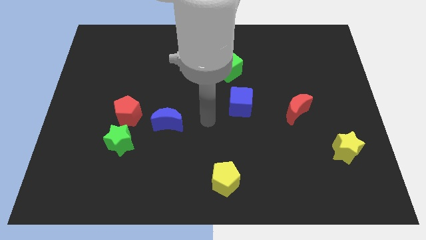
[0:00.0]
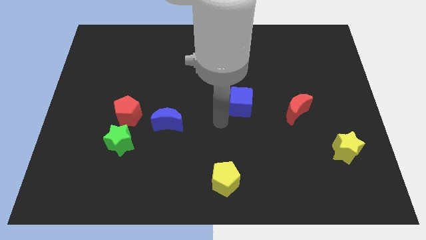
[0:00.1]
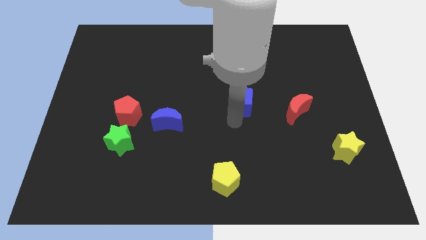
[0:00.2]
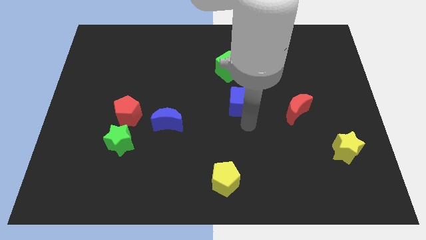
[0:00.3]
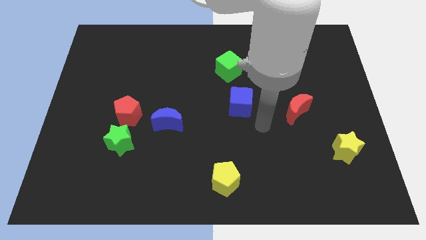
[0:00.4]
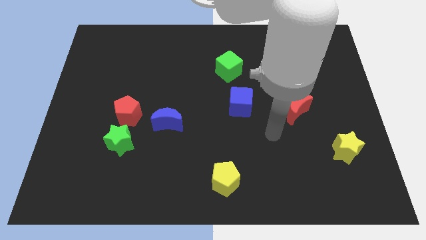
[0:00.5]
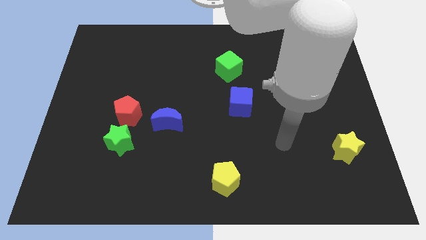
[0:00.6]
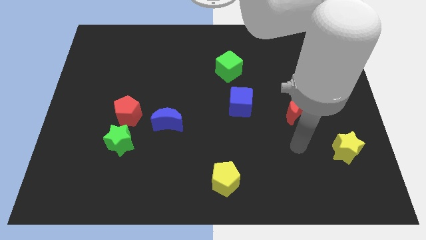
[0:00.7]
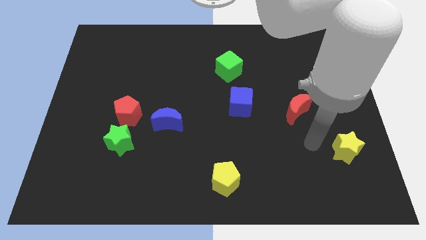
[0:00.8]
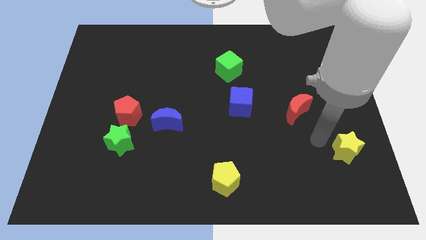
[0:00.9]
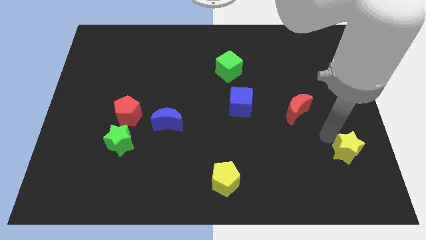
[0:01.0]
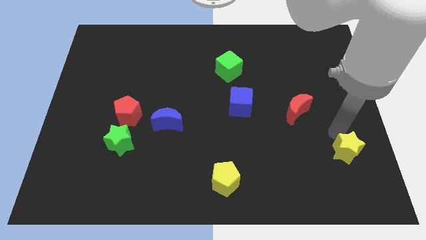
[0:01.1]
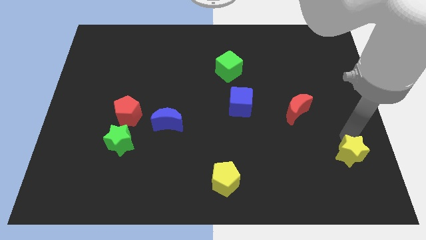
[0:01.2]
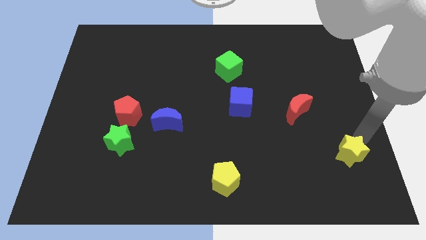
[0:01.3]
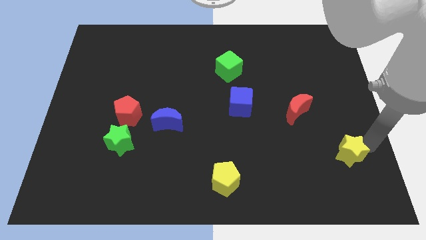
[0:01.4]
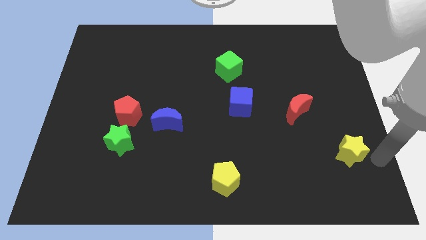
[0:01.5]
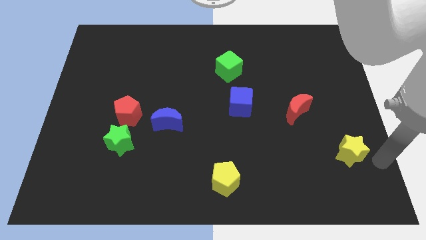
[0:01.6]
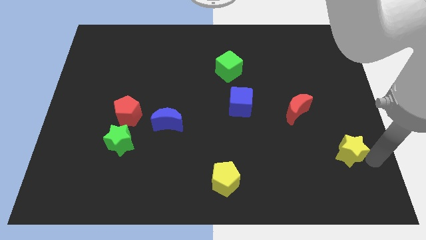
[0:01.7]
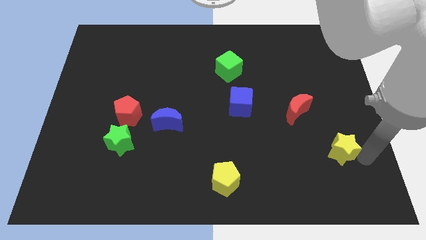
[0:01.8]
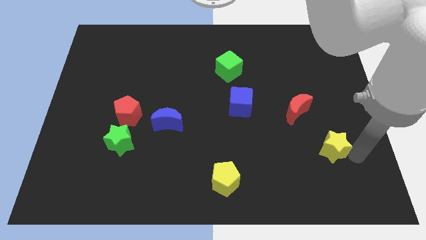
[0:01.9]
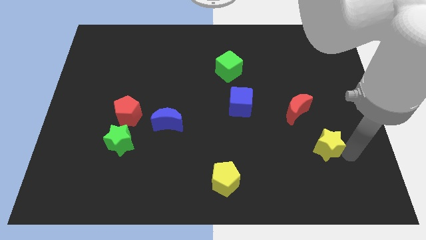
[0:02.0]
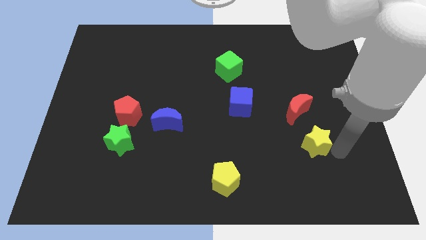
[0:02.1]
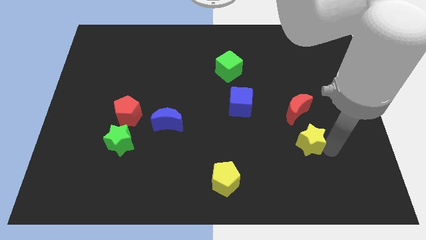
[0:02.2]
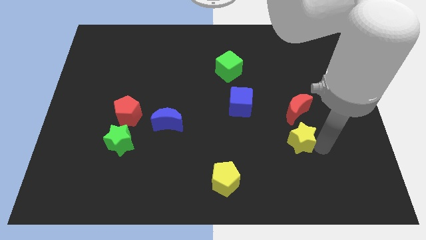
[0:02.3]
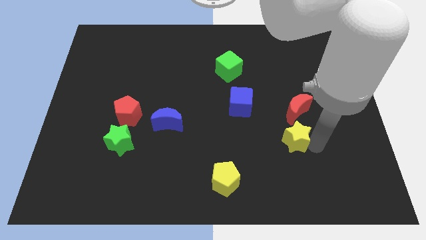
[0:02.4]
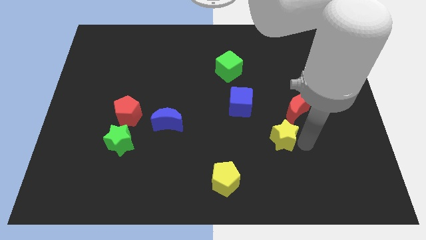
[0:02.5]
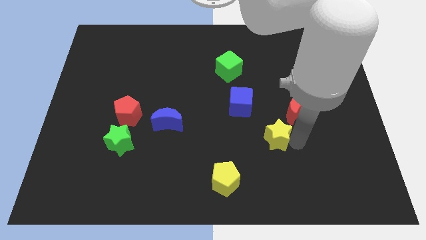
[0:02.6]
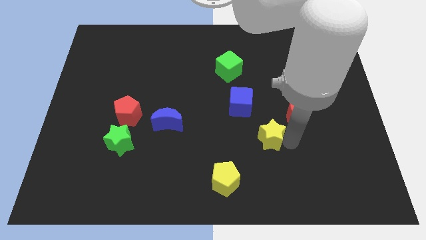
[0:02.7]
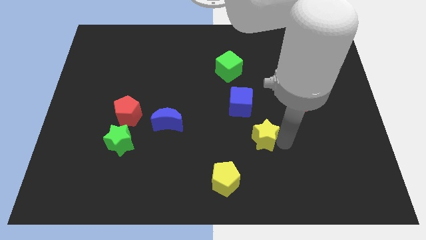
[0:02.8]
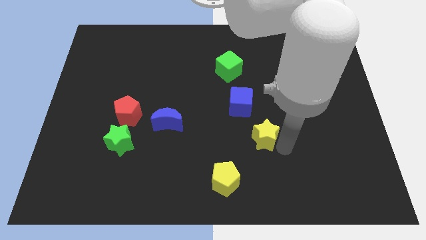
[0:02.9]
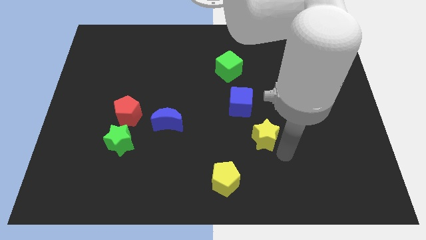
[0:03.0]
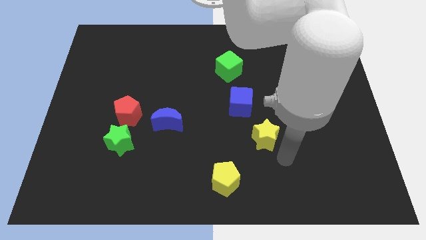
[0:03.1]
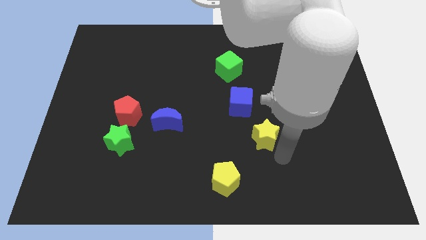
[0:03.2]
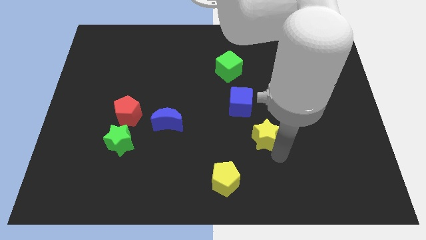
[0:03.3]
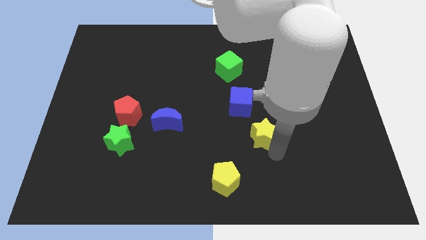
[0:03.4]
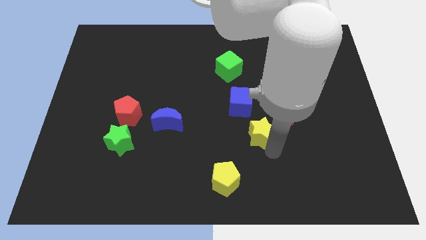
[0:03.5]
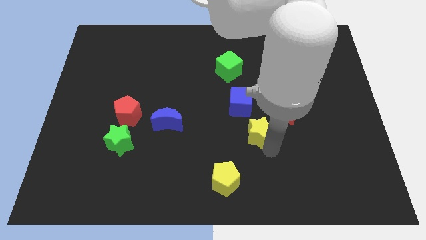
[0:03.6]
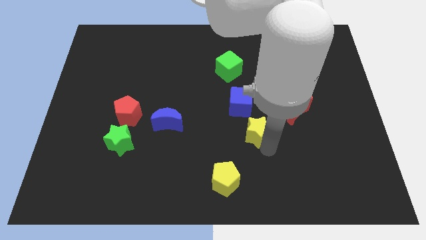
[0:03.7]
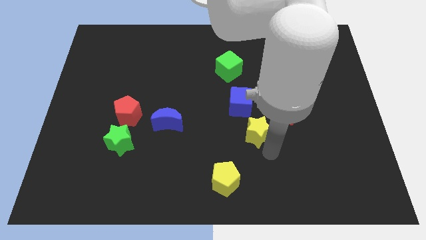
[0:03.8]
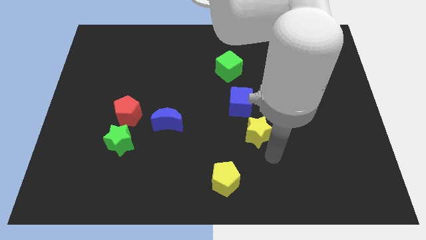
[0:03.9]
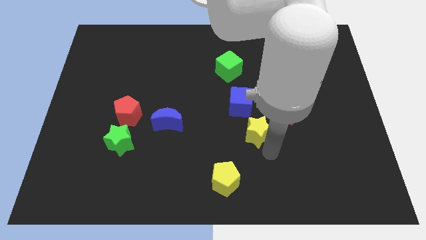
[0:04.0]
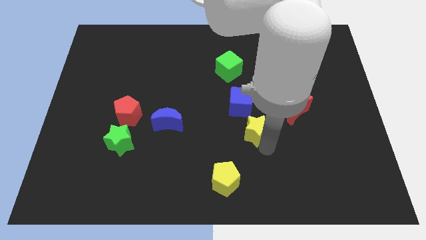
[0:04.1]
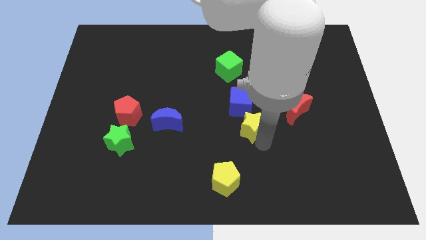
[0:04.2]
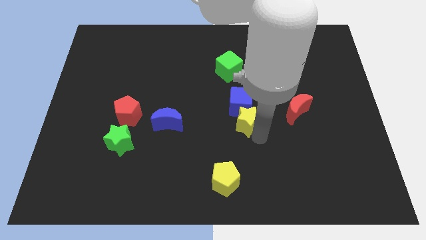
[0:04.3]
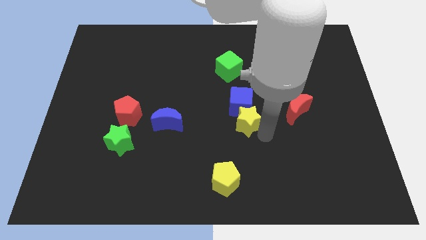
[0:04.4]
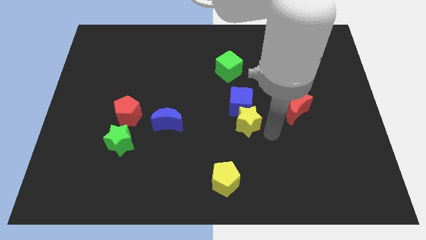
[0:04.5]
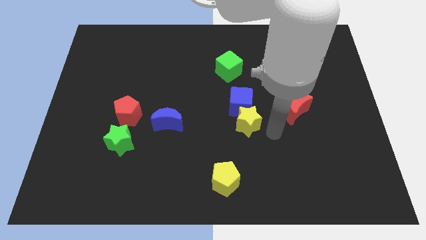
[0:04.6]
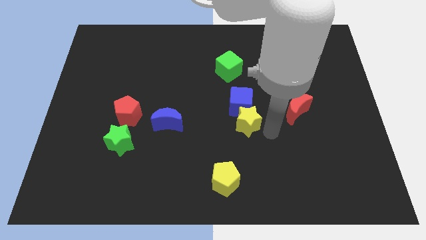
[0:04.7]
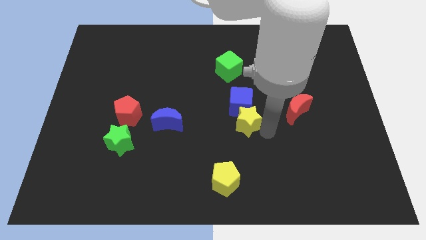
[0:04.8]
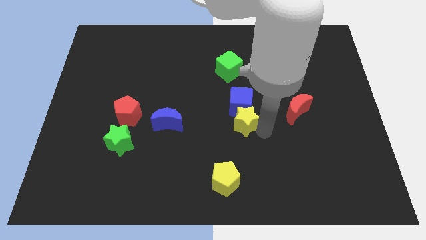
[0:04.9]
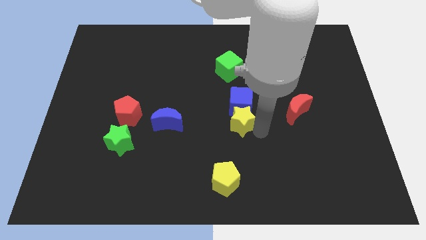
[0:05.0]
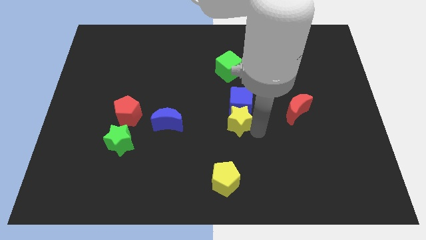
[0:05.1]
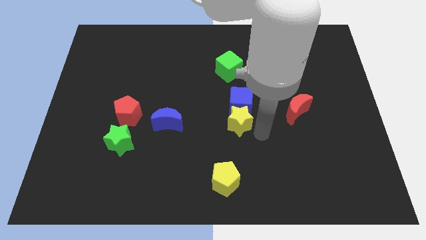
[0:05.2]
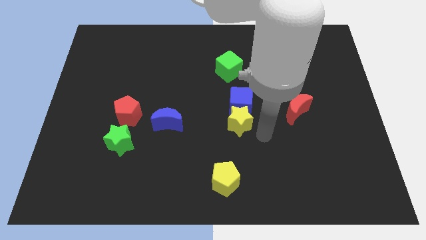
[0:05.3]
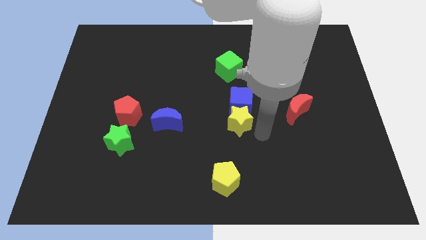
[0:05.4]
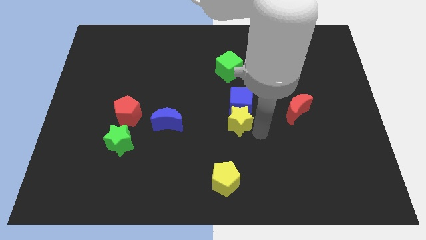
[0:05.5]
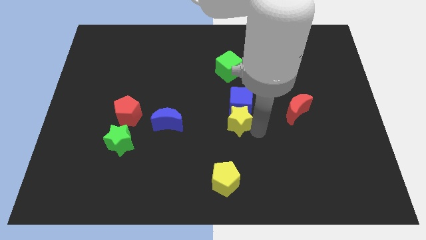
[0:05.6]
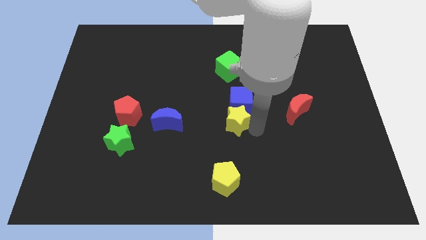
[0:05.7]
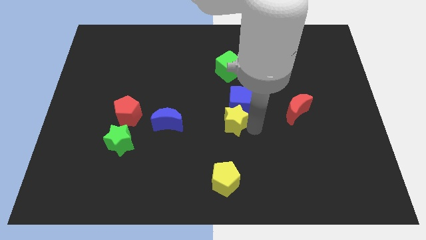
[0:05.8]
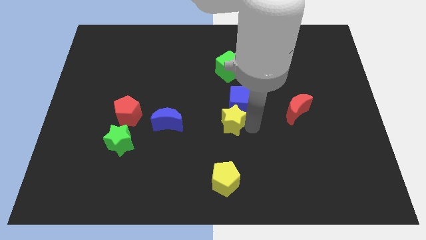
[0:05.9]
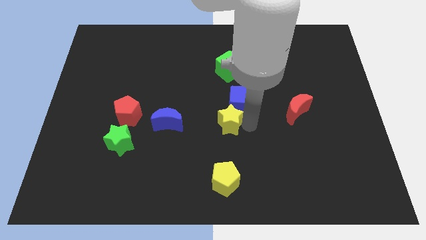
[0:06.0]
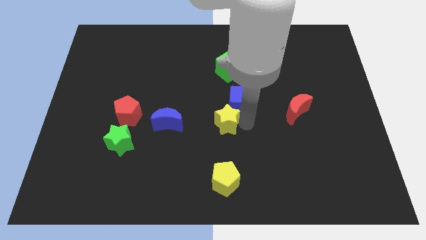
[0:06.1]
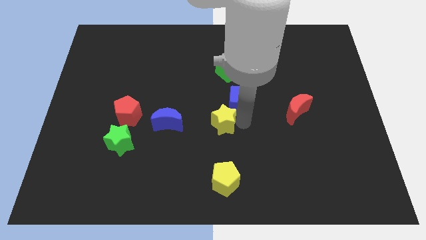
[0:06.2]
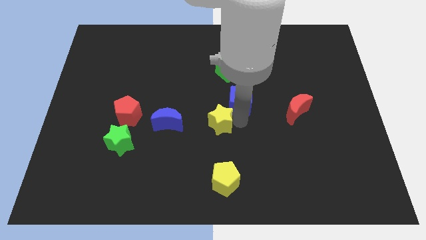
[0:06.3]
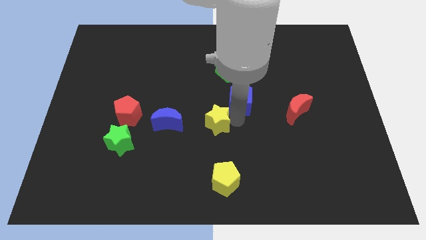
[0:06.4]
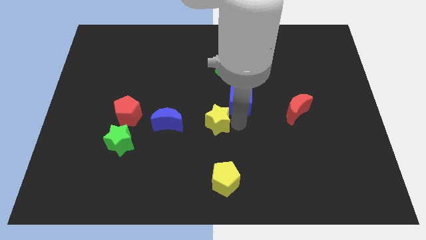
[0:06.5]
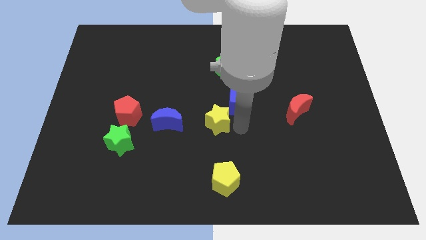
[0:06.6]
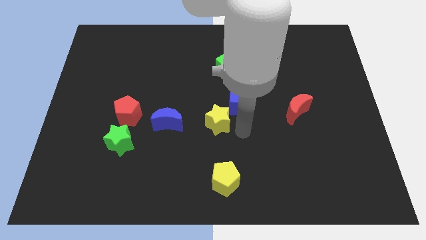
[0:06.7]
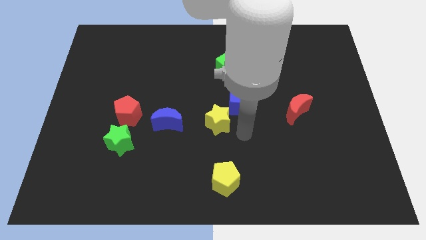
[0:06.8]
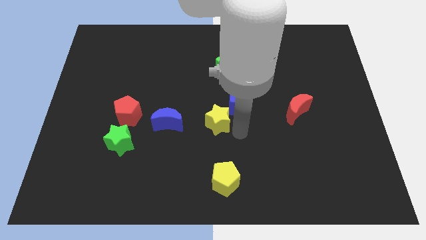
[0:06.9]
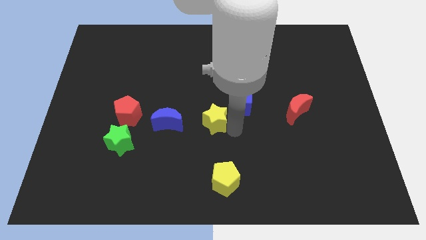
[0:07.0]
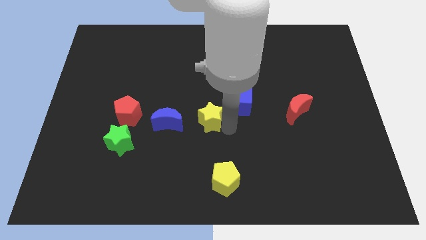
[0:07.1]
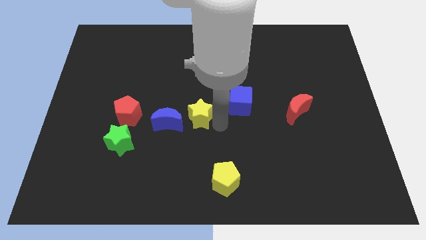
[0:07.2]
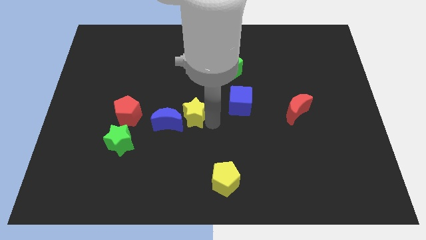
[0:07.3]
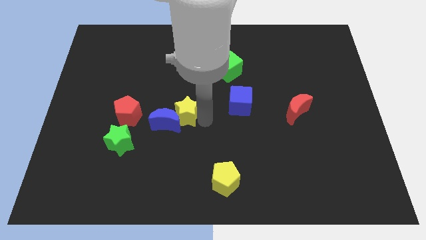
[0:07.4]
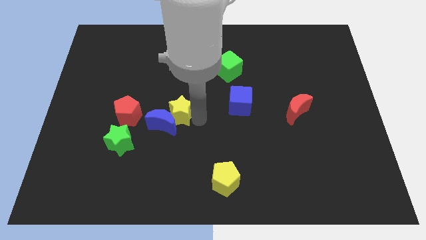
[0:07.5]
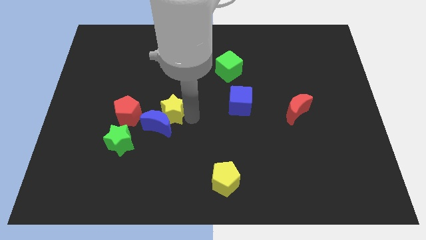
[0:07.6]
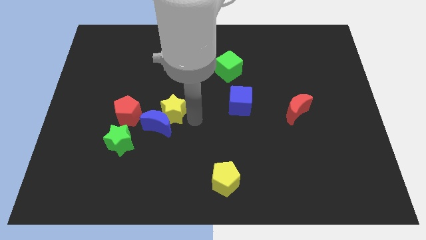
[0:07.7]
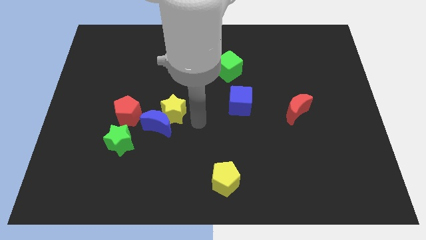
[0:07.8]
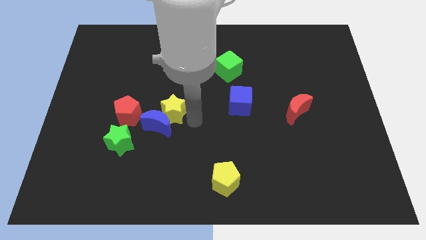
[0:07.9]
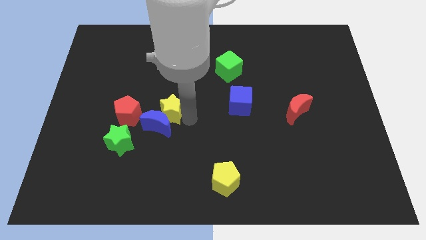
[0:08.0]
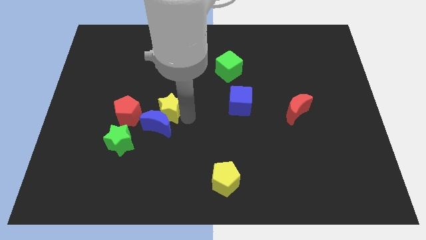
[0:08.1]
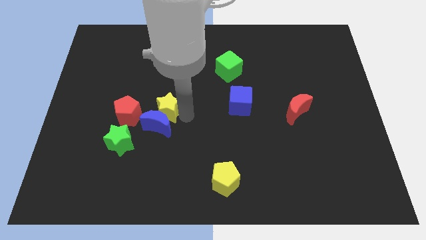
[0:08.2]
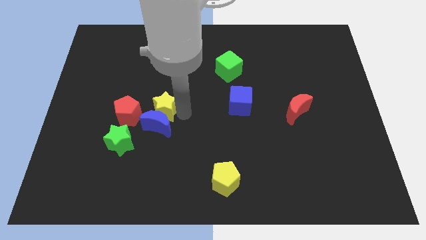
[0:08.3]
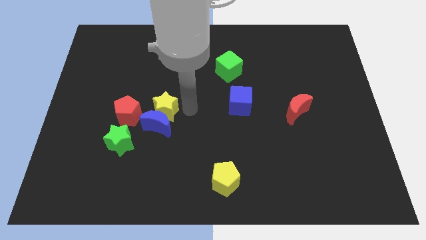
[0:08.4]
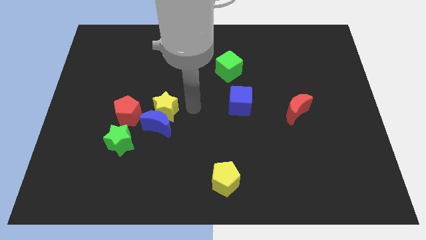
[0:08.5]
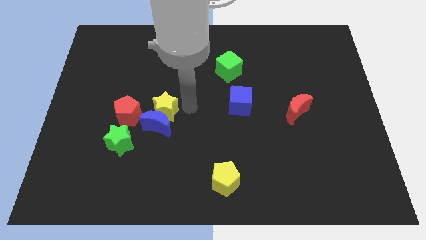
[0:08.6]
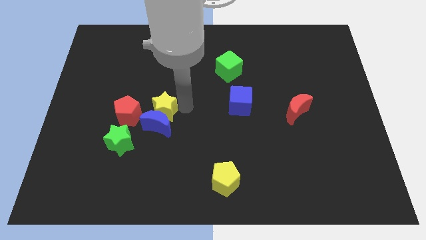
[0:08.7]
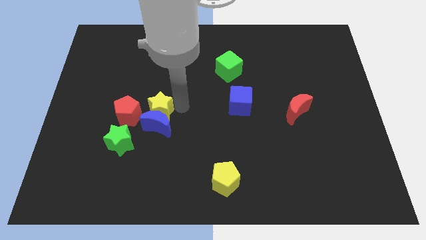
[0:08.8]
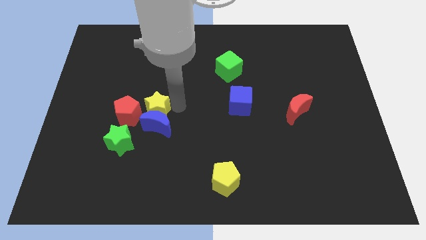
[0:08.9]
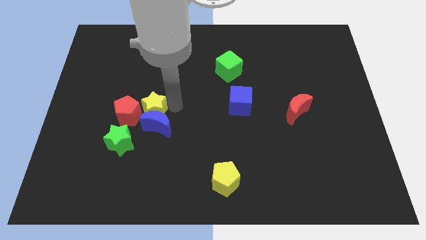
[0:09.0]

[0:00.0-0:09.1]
push the yellow star close to the red pentagon
